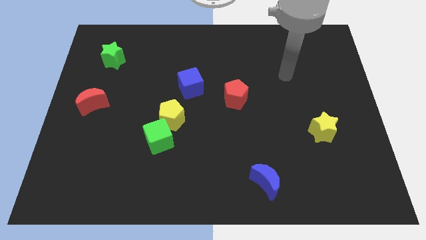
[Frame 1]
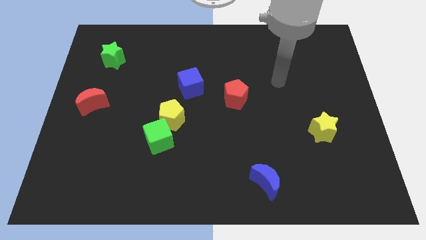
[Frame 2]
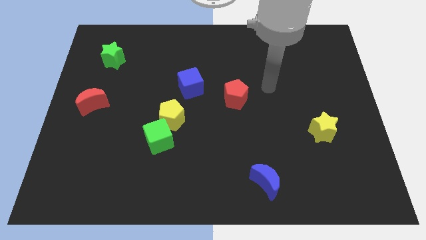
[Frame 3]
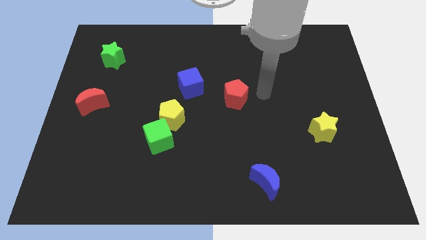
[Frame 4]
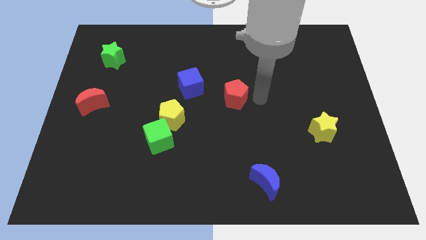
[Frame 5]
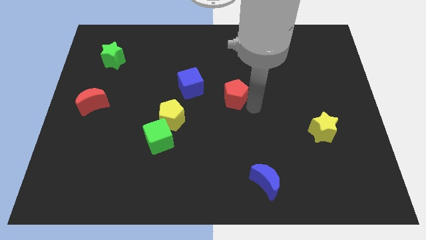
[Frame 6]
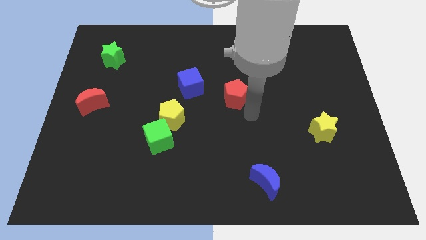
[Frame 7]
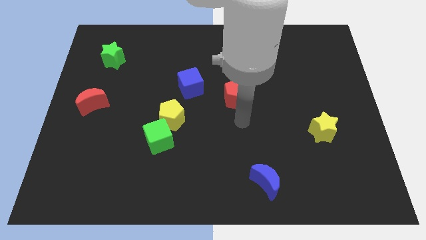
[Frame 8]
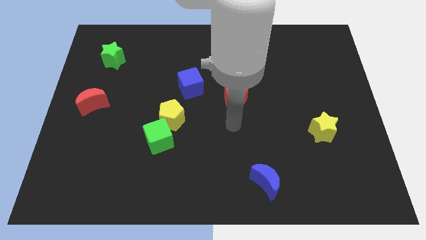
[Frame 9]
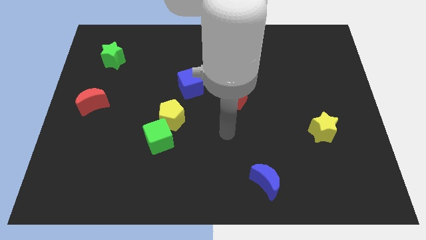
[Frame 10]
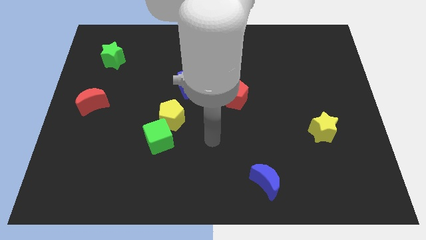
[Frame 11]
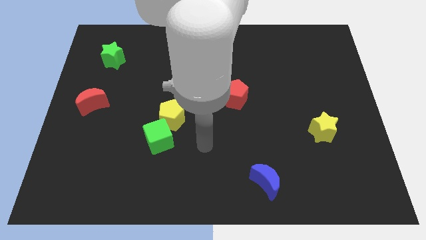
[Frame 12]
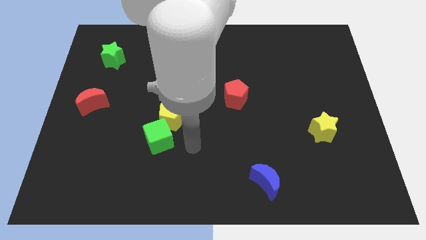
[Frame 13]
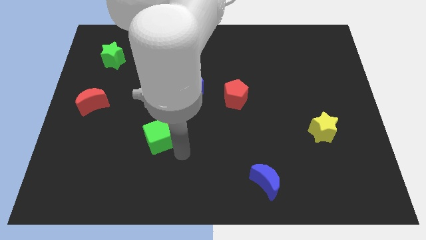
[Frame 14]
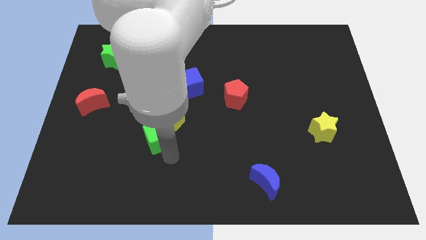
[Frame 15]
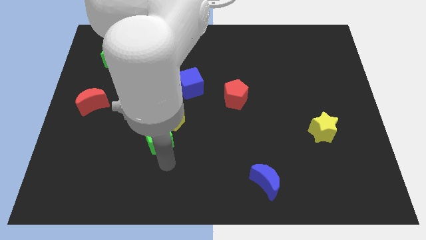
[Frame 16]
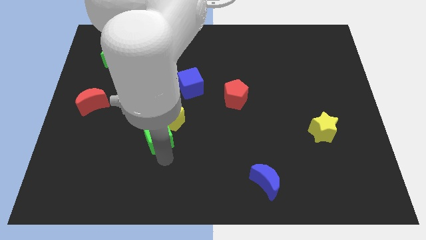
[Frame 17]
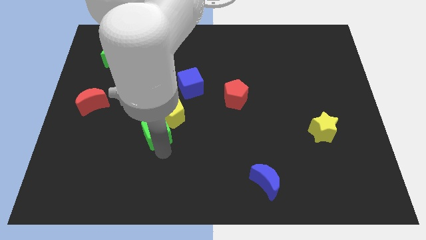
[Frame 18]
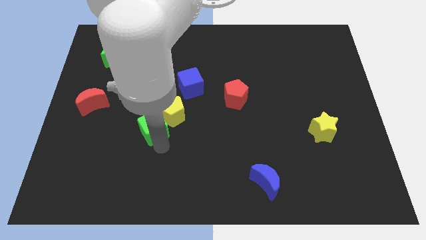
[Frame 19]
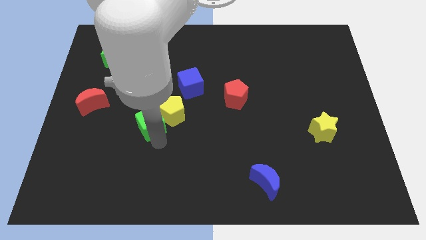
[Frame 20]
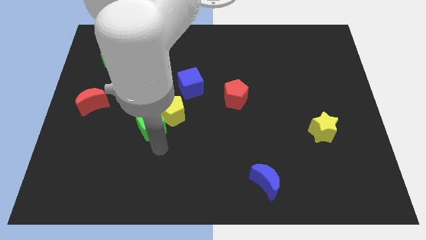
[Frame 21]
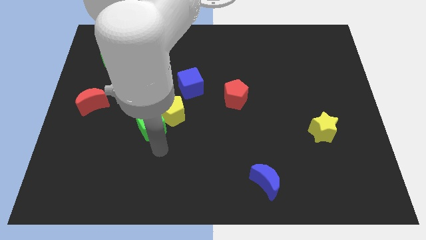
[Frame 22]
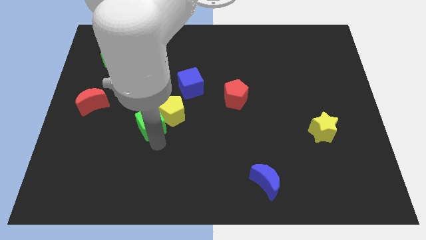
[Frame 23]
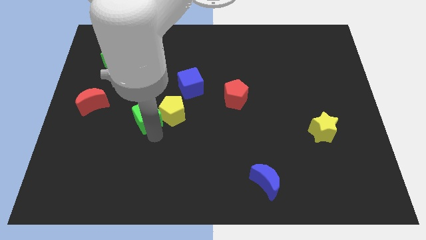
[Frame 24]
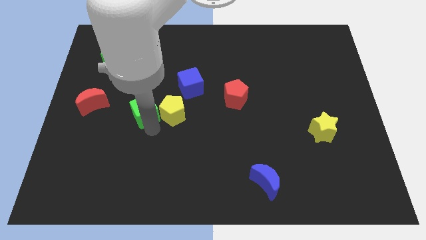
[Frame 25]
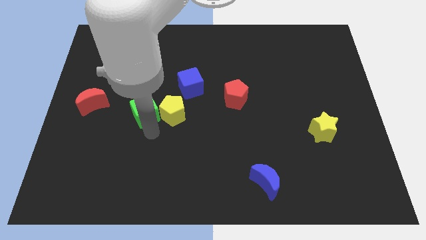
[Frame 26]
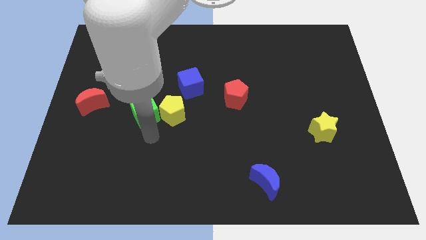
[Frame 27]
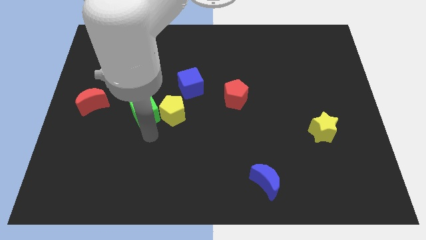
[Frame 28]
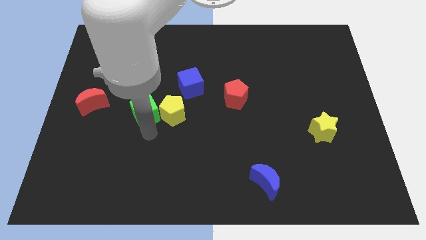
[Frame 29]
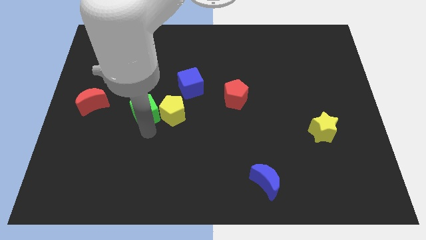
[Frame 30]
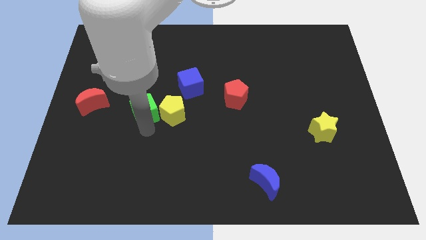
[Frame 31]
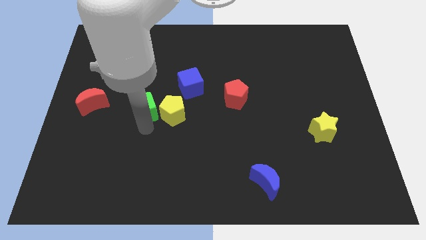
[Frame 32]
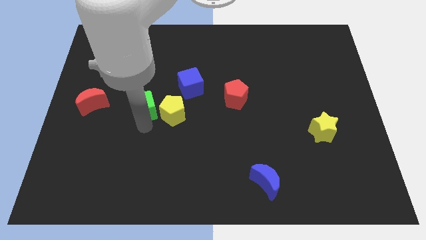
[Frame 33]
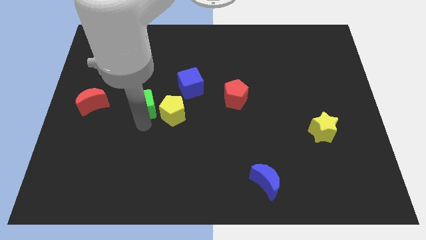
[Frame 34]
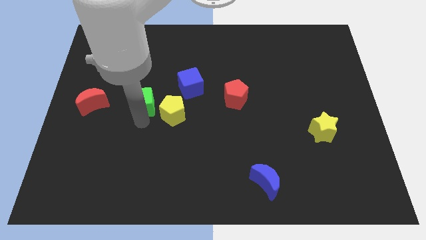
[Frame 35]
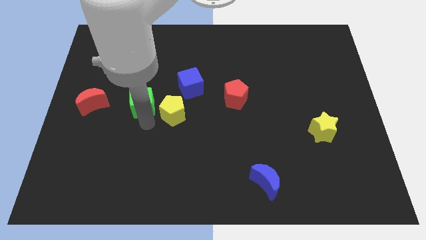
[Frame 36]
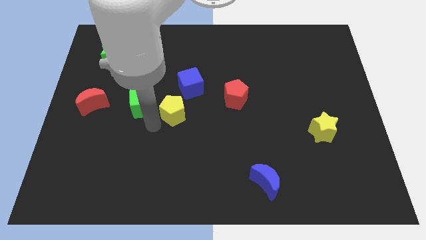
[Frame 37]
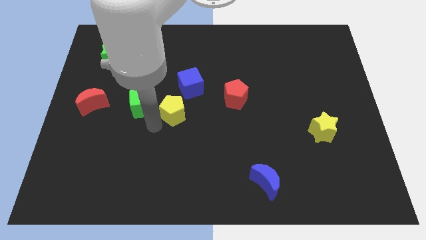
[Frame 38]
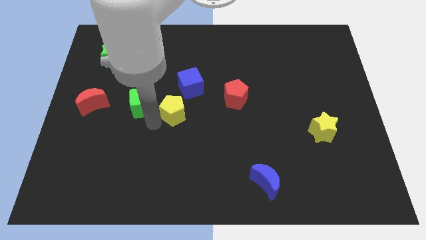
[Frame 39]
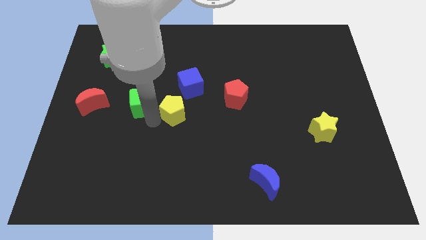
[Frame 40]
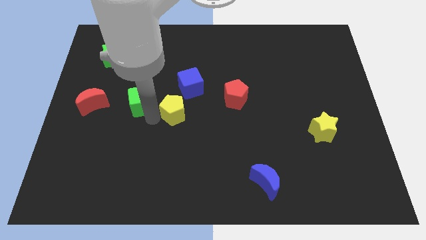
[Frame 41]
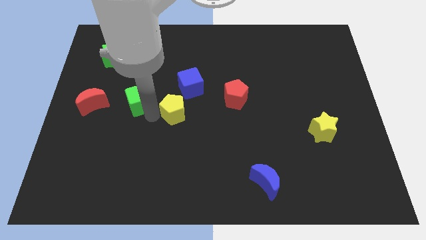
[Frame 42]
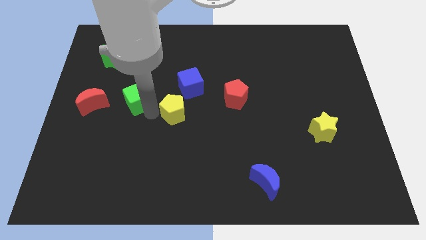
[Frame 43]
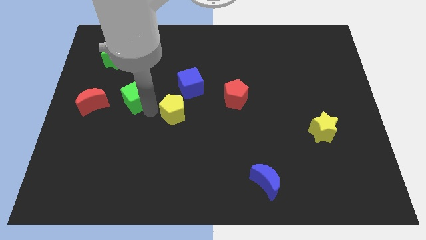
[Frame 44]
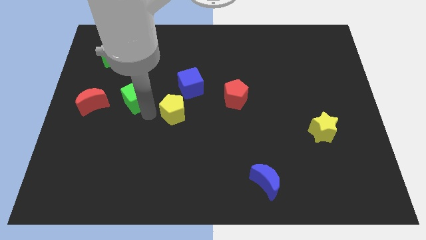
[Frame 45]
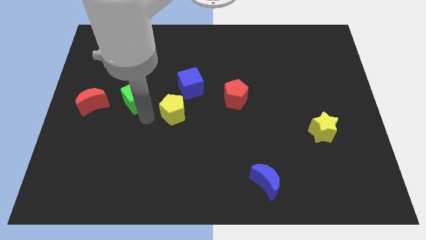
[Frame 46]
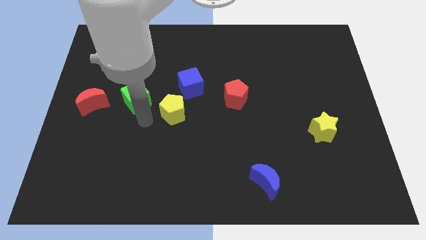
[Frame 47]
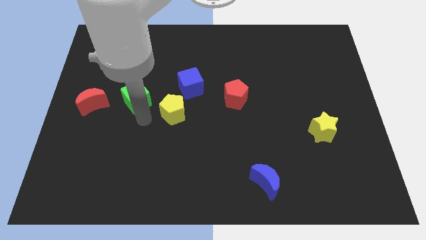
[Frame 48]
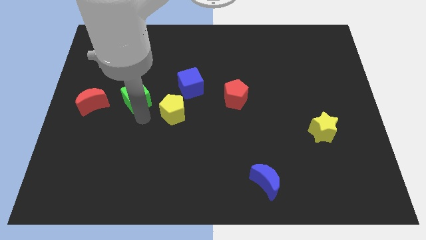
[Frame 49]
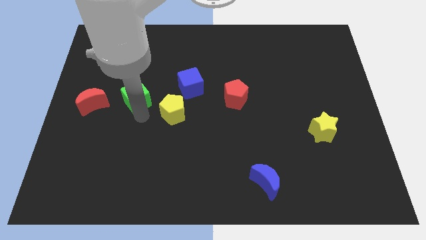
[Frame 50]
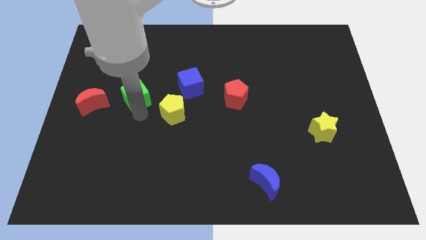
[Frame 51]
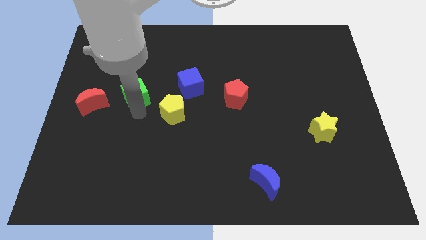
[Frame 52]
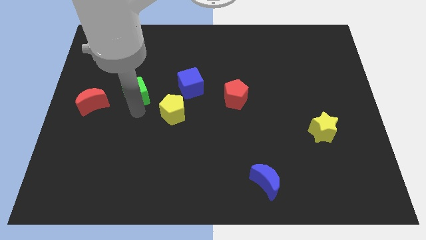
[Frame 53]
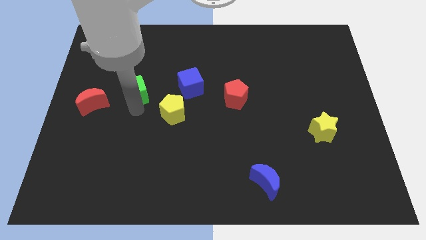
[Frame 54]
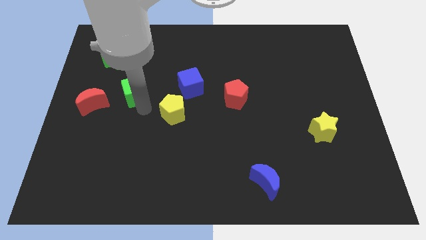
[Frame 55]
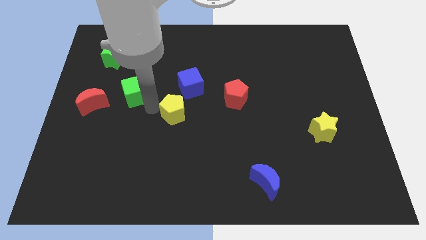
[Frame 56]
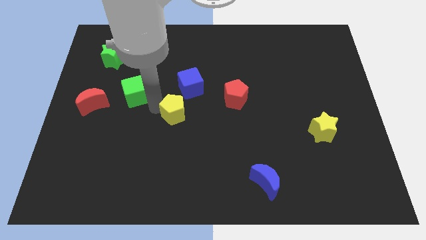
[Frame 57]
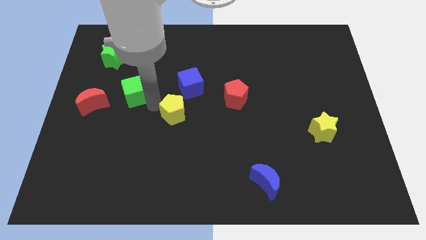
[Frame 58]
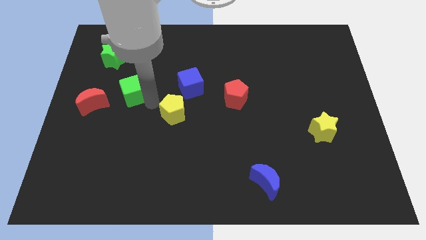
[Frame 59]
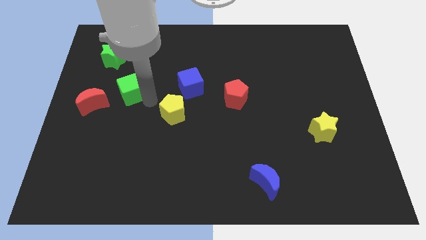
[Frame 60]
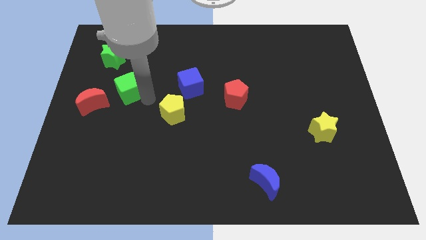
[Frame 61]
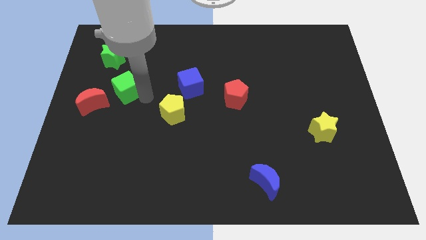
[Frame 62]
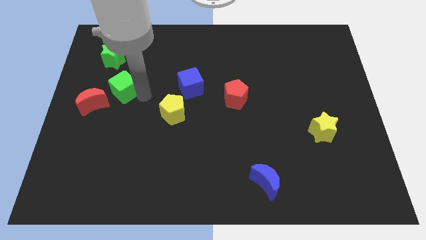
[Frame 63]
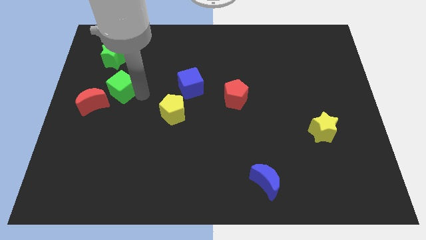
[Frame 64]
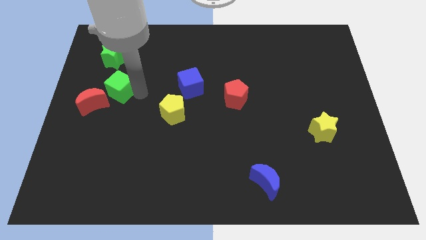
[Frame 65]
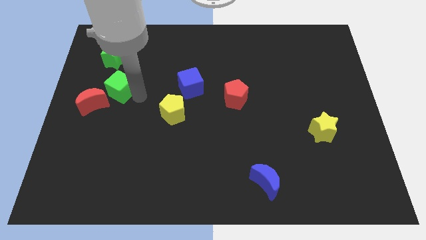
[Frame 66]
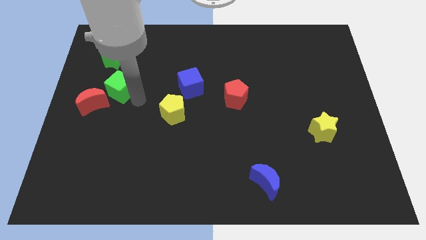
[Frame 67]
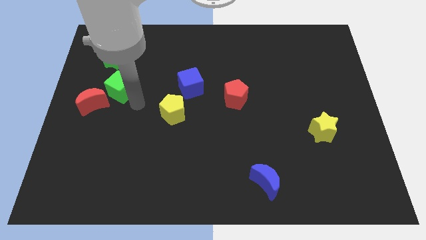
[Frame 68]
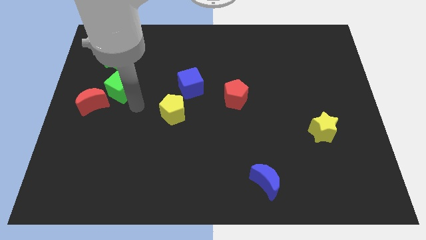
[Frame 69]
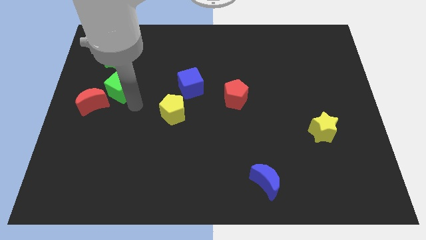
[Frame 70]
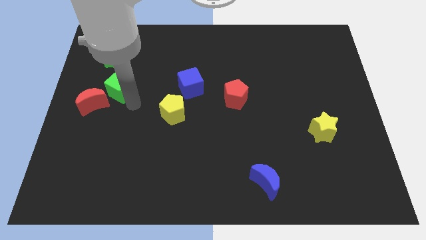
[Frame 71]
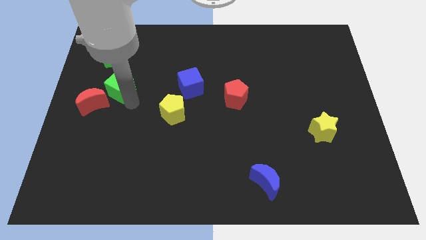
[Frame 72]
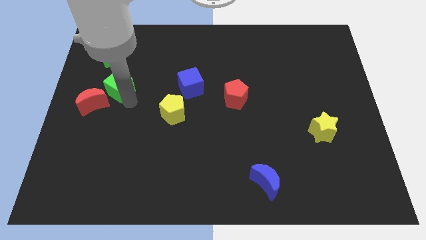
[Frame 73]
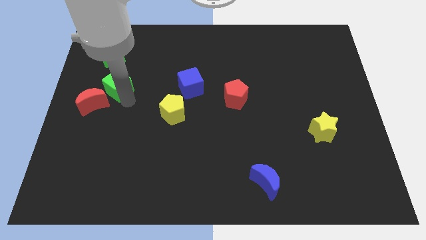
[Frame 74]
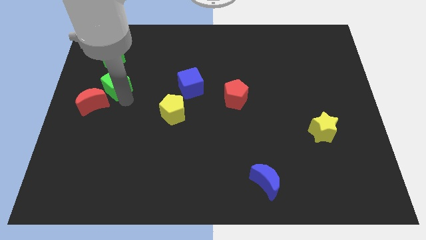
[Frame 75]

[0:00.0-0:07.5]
put the green cube above the red moon

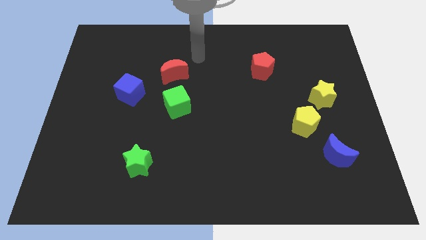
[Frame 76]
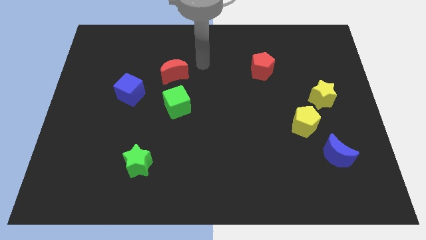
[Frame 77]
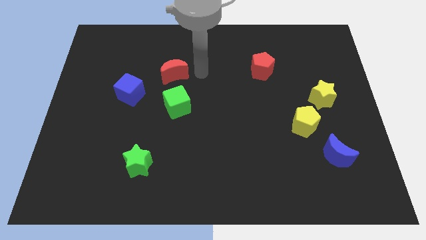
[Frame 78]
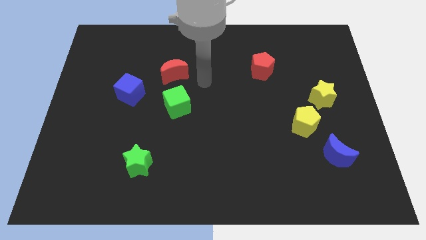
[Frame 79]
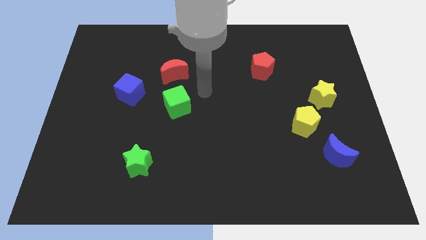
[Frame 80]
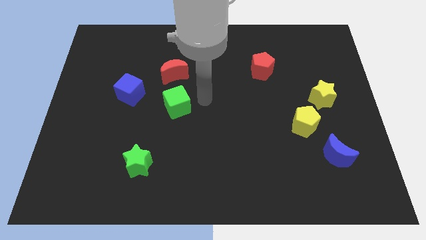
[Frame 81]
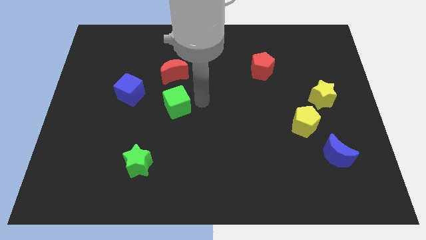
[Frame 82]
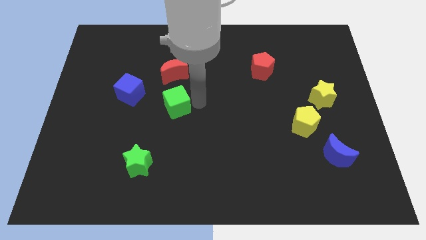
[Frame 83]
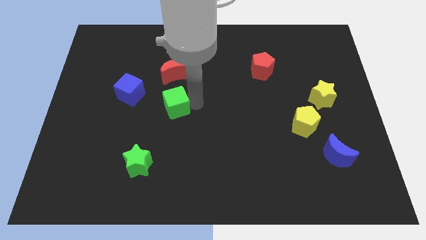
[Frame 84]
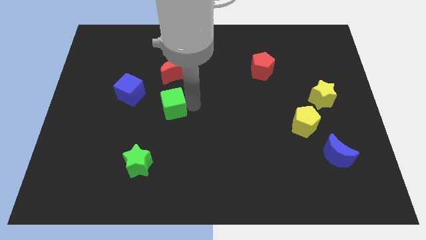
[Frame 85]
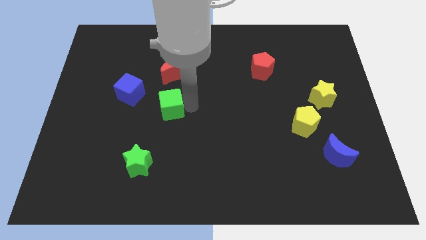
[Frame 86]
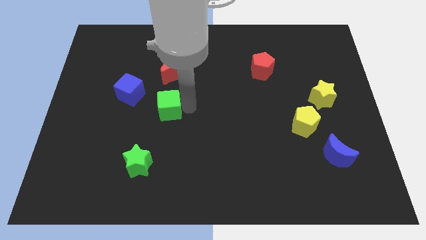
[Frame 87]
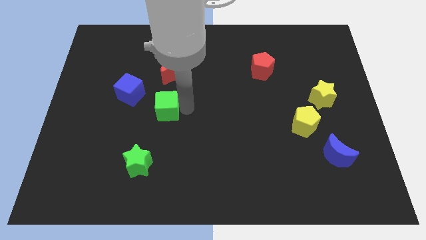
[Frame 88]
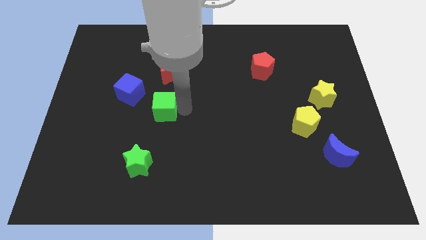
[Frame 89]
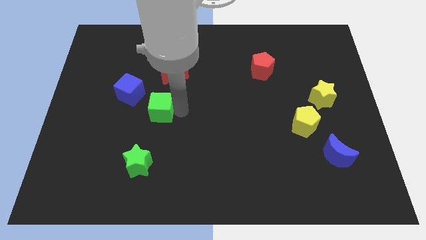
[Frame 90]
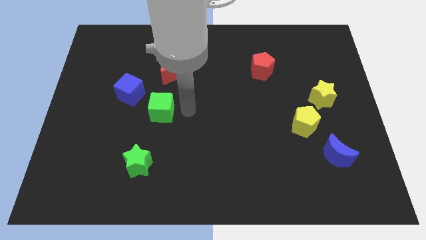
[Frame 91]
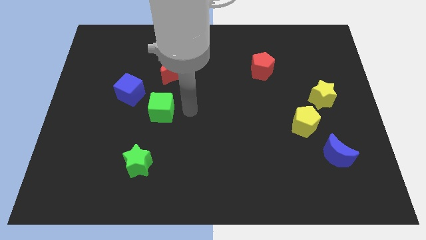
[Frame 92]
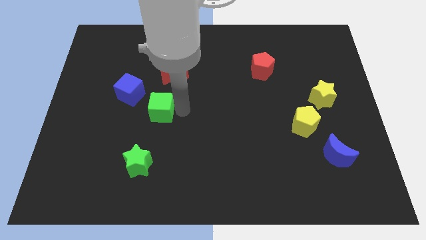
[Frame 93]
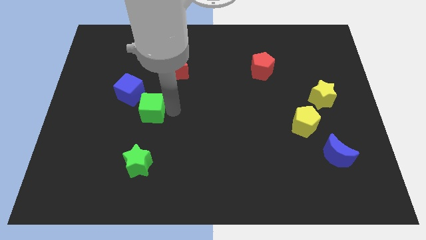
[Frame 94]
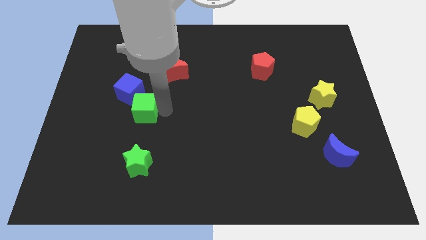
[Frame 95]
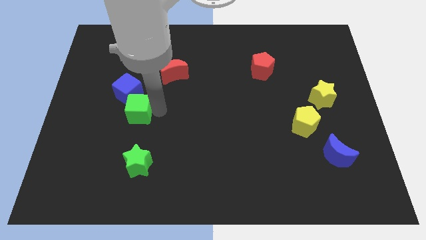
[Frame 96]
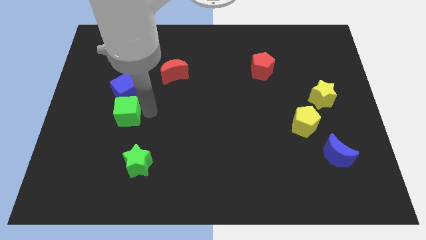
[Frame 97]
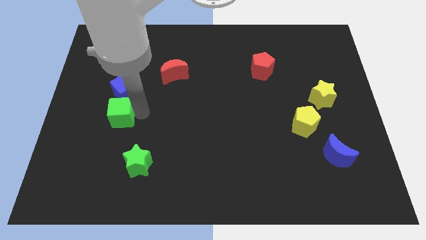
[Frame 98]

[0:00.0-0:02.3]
slide the green cube diagonally down and to the left of the blue cube
